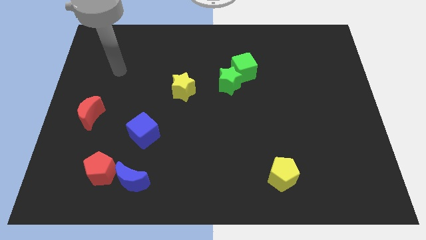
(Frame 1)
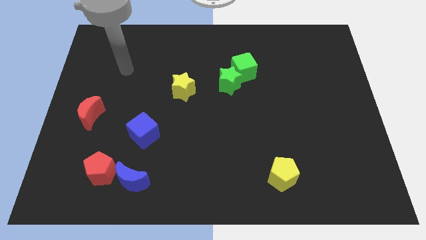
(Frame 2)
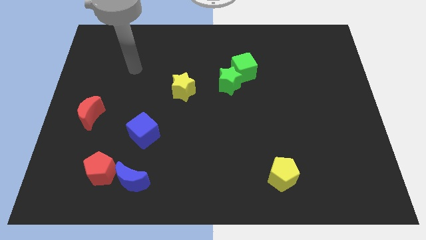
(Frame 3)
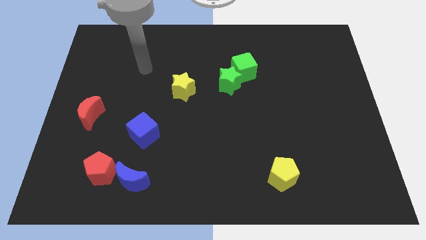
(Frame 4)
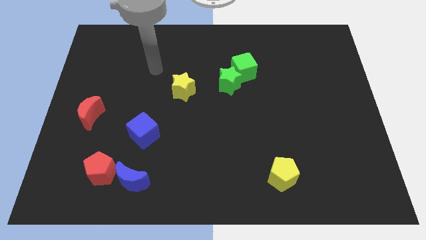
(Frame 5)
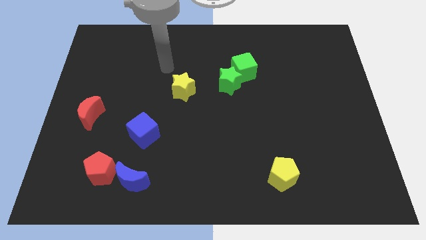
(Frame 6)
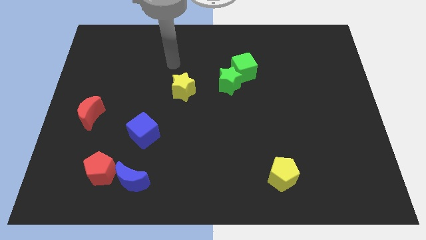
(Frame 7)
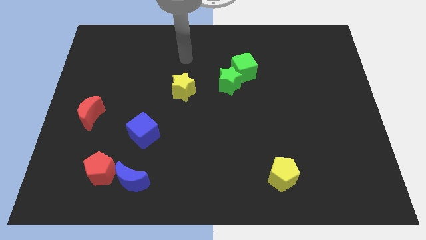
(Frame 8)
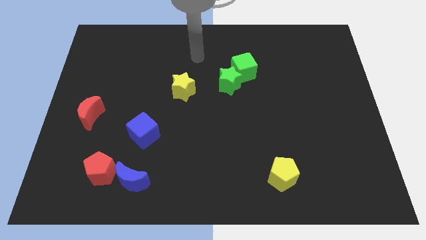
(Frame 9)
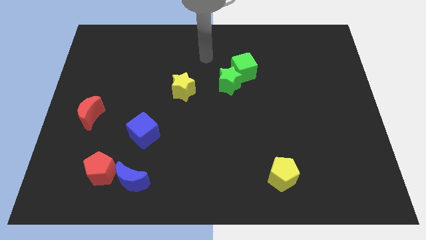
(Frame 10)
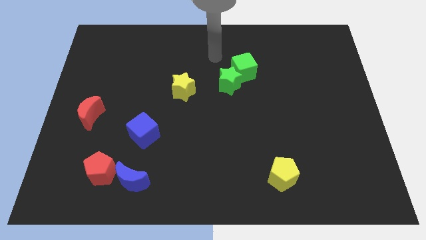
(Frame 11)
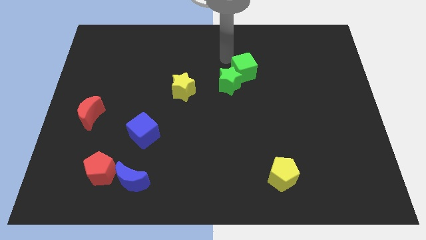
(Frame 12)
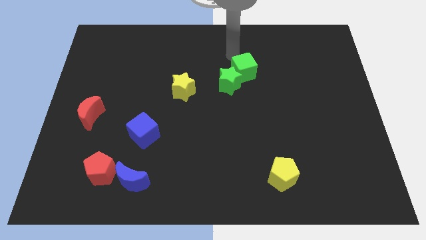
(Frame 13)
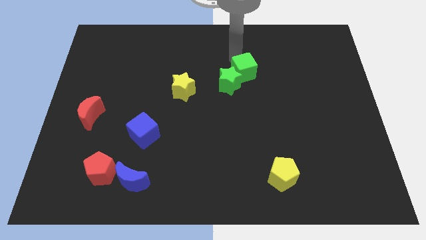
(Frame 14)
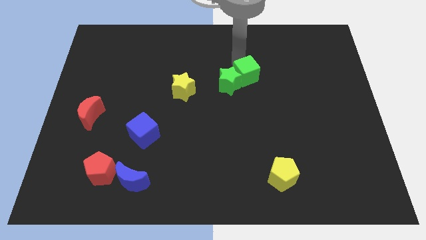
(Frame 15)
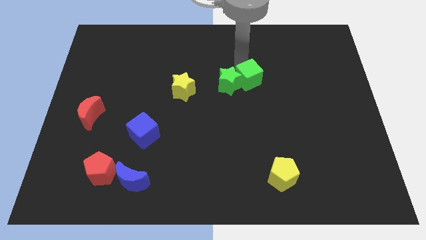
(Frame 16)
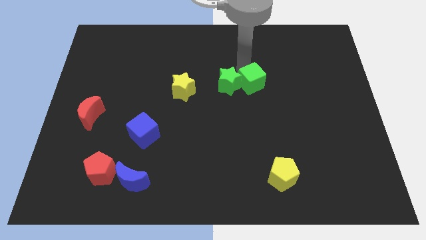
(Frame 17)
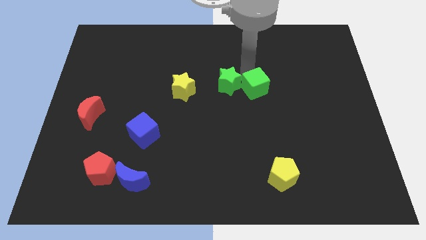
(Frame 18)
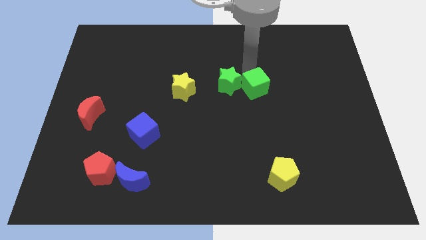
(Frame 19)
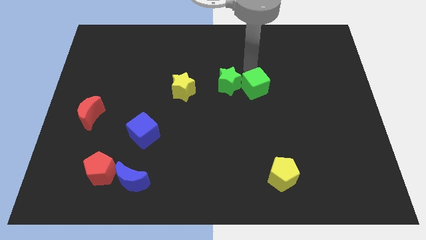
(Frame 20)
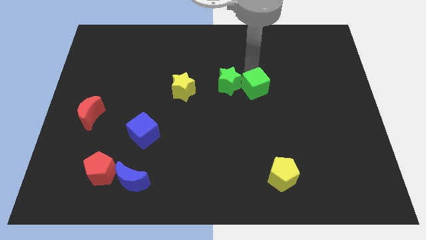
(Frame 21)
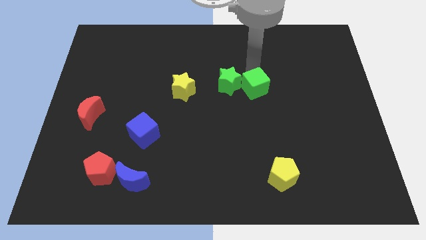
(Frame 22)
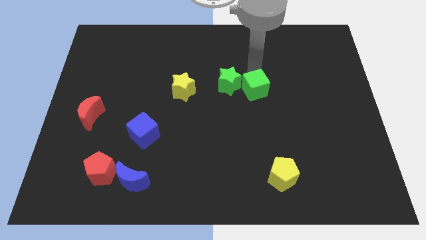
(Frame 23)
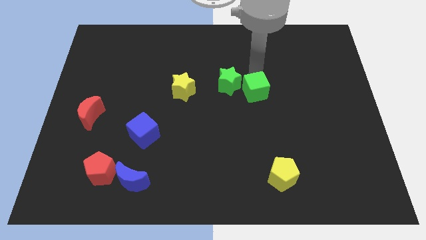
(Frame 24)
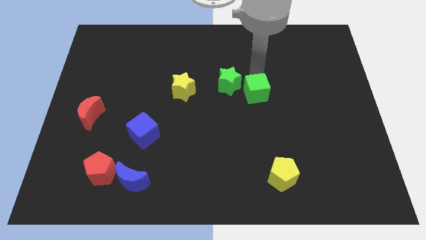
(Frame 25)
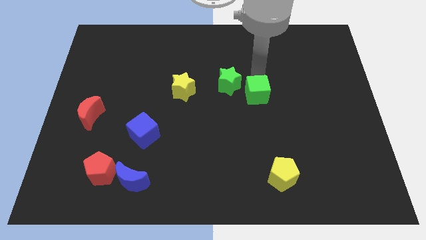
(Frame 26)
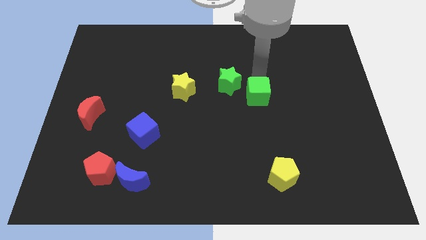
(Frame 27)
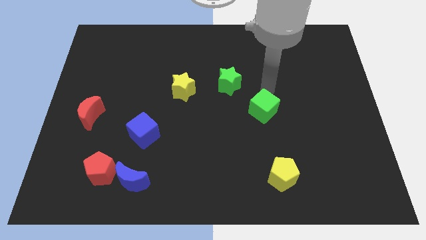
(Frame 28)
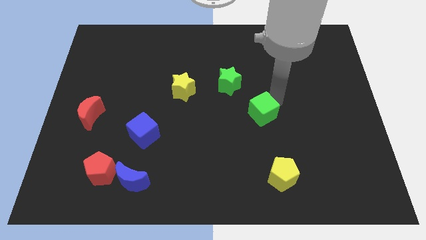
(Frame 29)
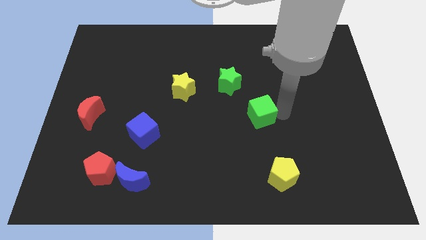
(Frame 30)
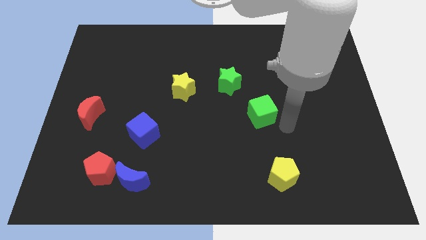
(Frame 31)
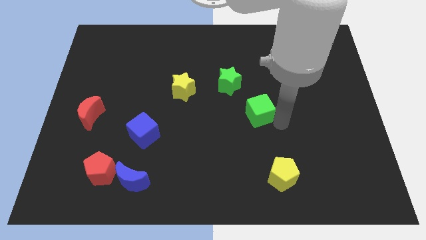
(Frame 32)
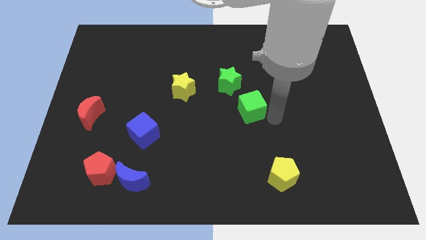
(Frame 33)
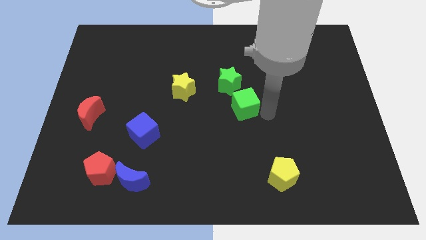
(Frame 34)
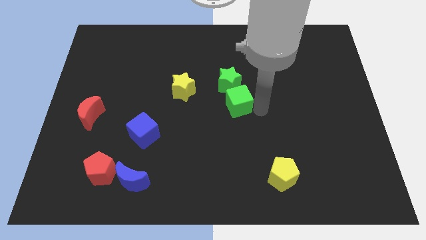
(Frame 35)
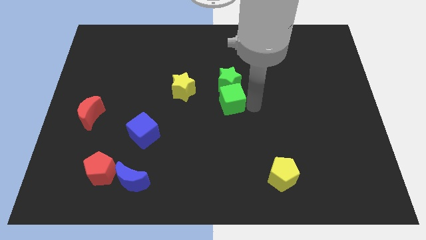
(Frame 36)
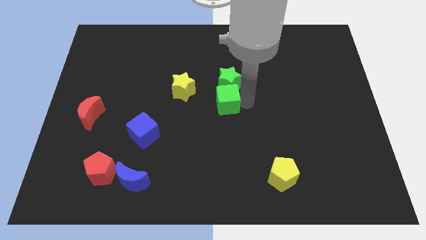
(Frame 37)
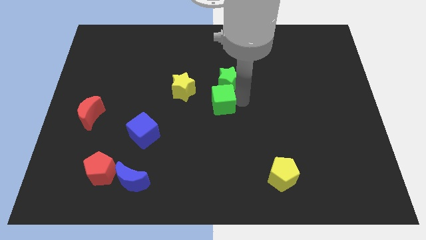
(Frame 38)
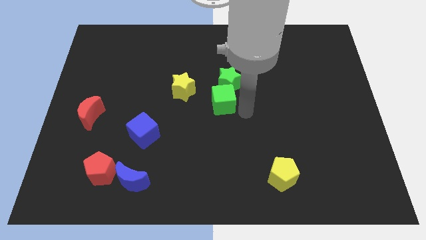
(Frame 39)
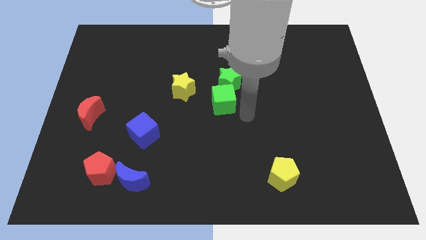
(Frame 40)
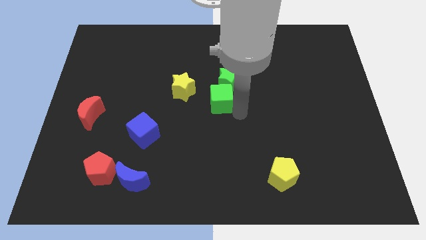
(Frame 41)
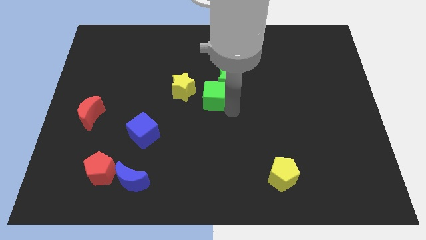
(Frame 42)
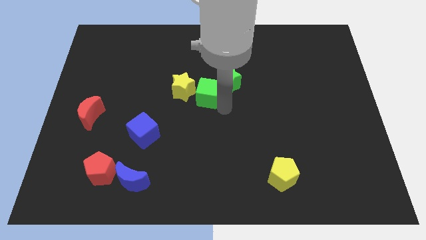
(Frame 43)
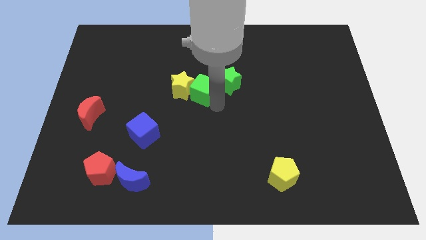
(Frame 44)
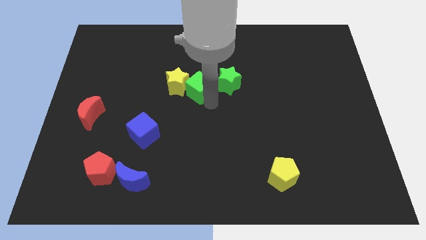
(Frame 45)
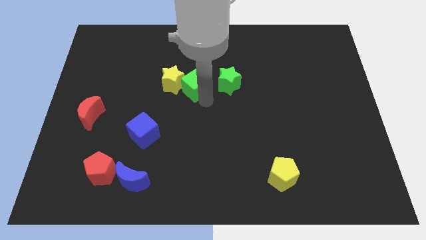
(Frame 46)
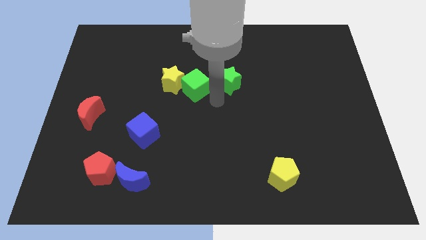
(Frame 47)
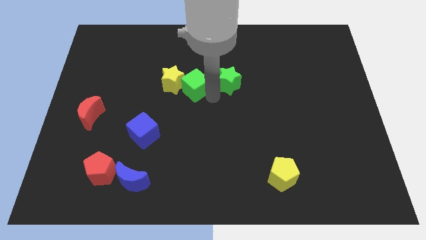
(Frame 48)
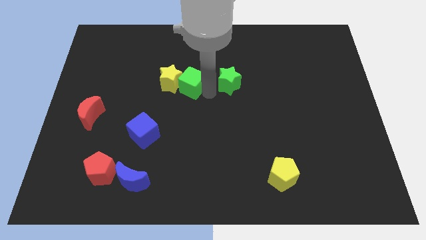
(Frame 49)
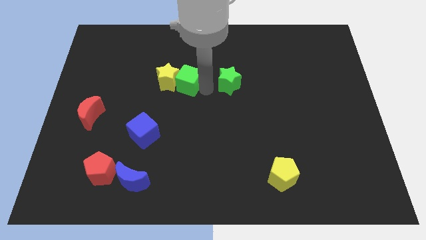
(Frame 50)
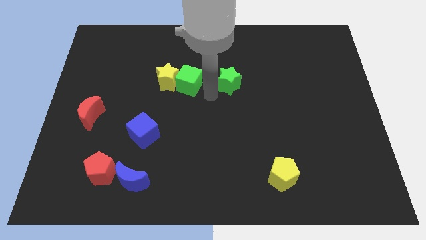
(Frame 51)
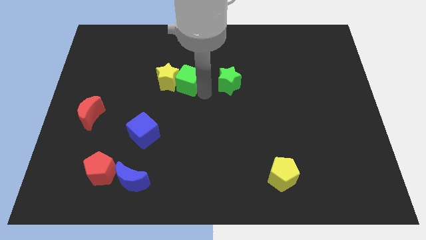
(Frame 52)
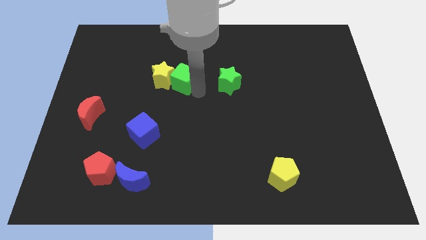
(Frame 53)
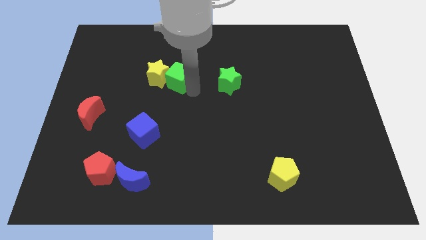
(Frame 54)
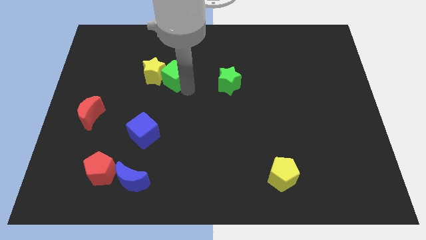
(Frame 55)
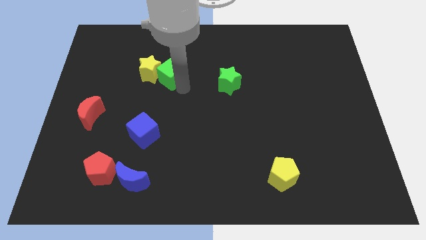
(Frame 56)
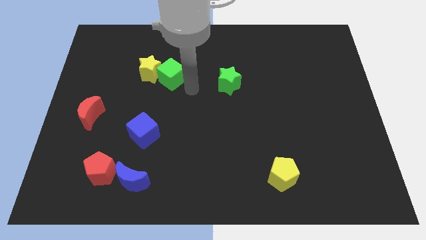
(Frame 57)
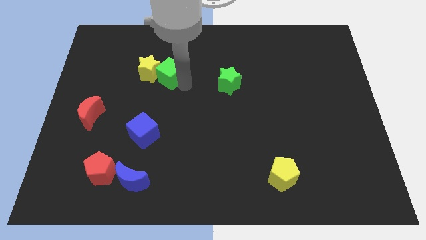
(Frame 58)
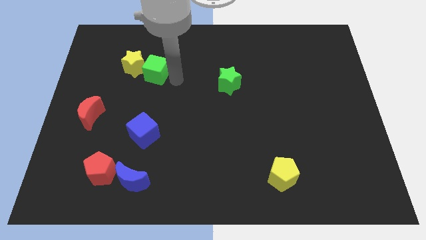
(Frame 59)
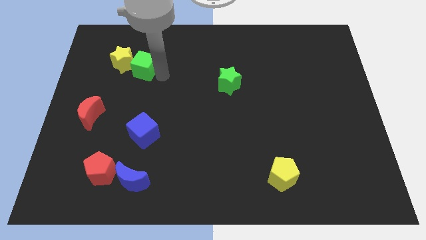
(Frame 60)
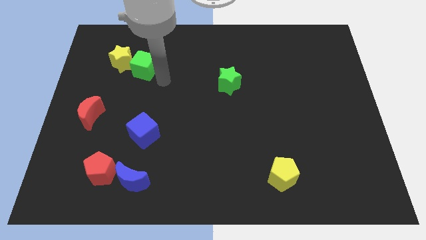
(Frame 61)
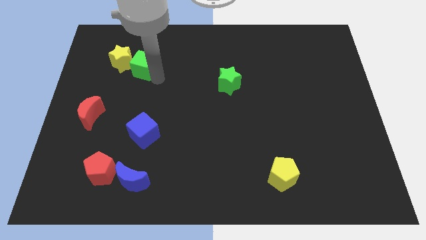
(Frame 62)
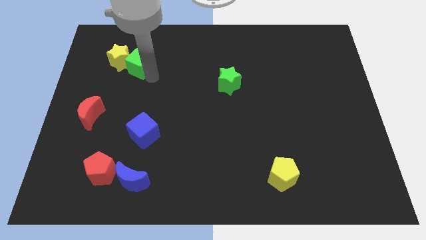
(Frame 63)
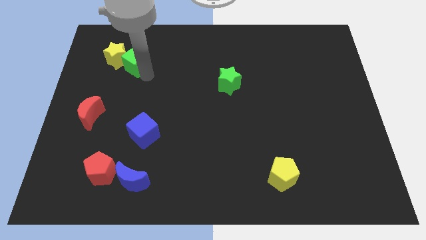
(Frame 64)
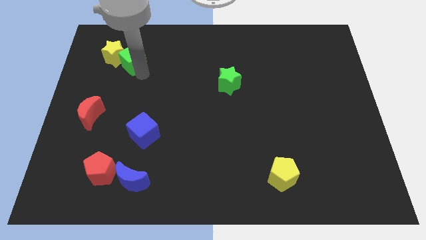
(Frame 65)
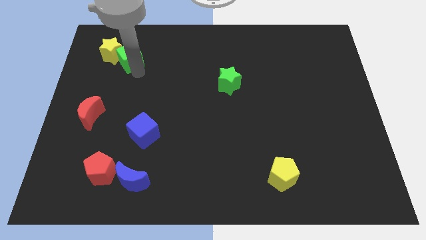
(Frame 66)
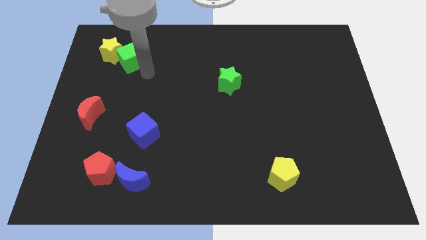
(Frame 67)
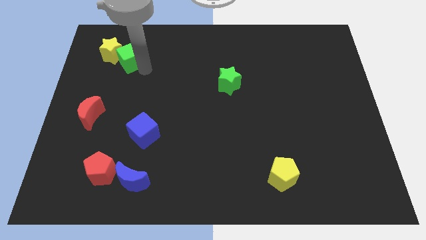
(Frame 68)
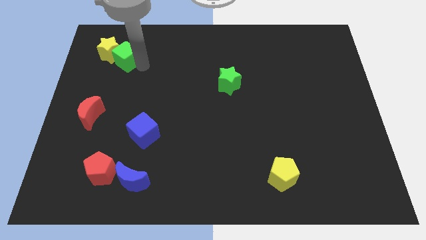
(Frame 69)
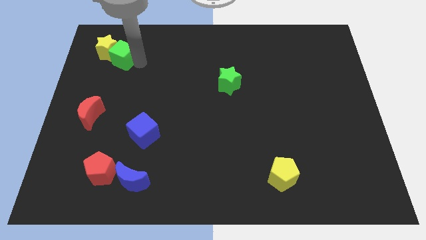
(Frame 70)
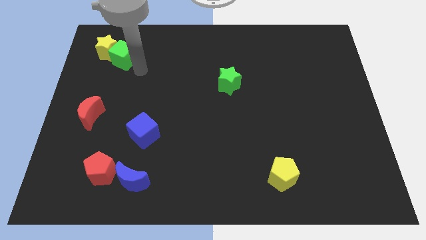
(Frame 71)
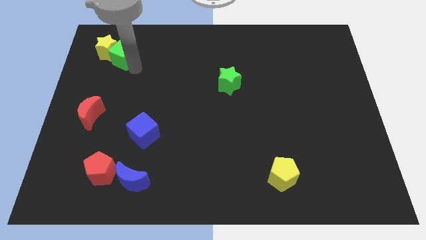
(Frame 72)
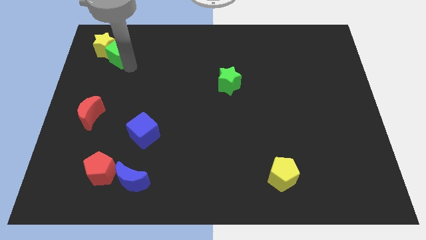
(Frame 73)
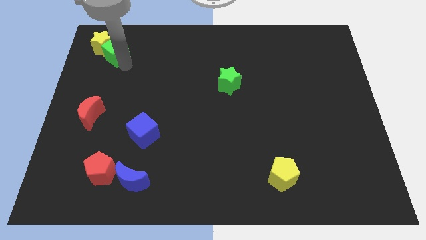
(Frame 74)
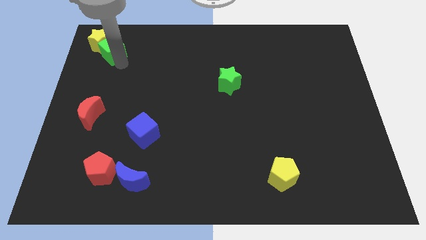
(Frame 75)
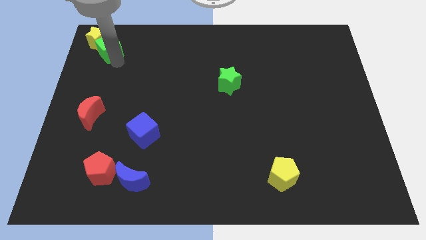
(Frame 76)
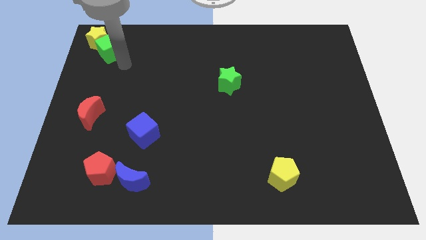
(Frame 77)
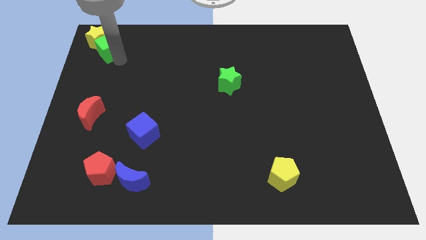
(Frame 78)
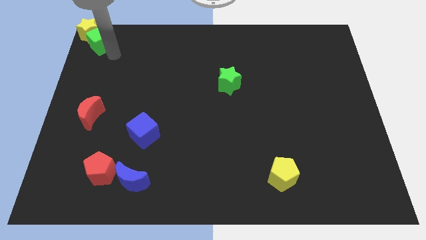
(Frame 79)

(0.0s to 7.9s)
push the green cube to the top left of the board
